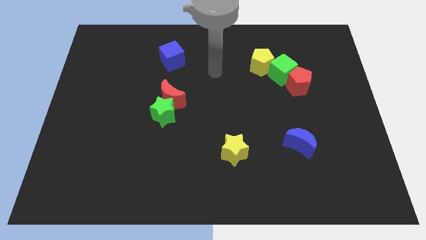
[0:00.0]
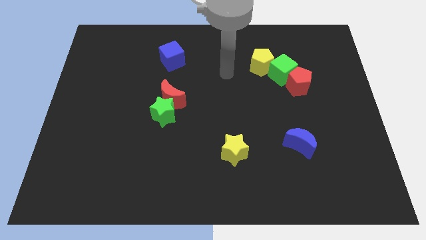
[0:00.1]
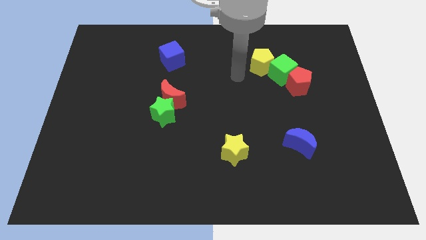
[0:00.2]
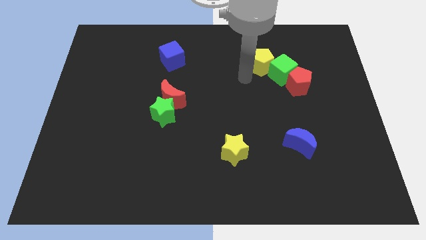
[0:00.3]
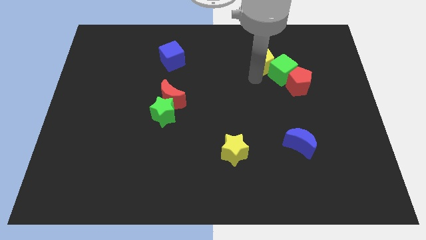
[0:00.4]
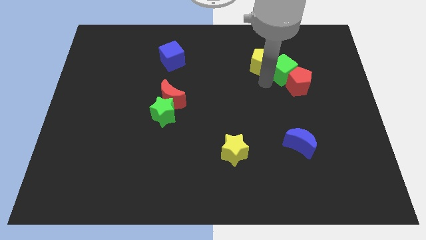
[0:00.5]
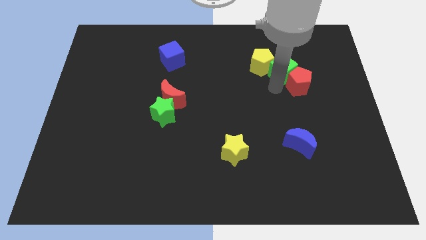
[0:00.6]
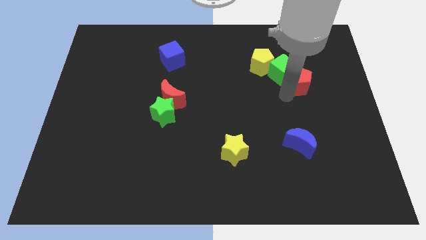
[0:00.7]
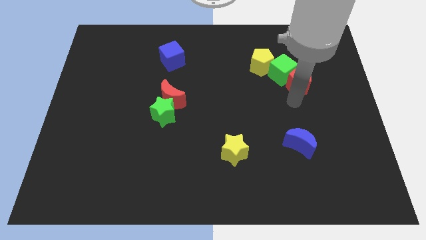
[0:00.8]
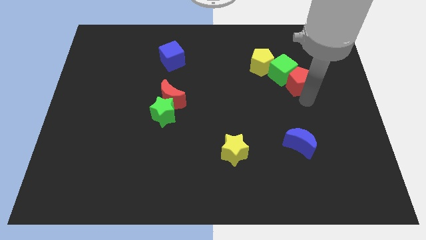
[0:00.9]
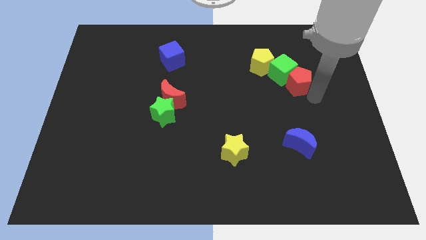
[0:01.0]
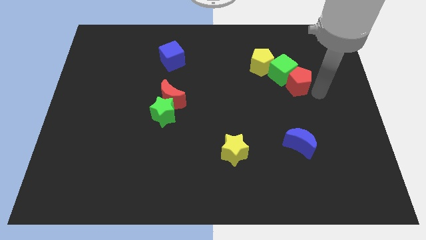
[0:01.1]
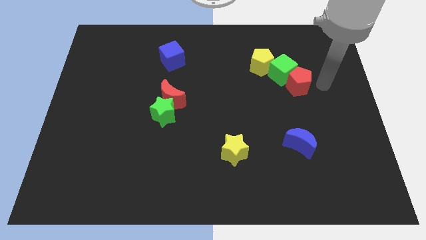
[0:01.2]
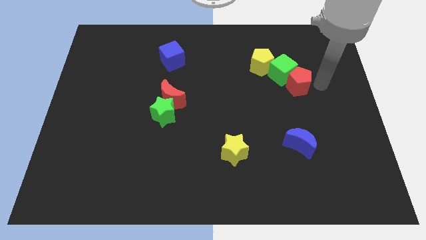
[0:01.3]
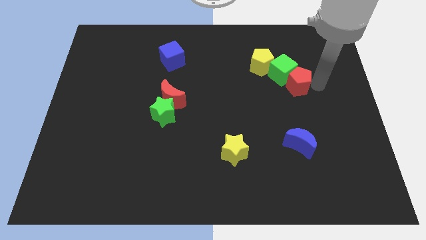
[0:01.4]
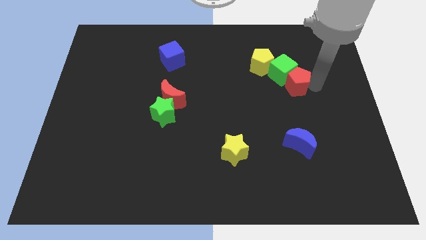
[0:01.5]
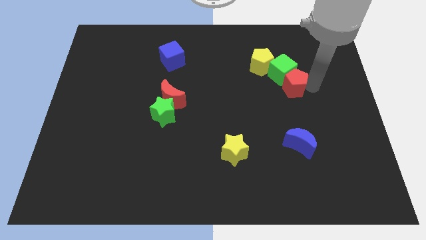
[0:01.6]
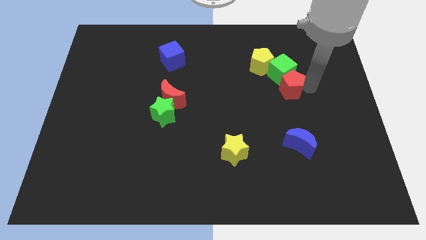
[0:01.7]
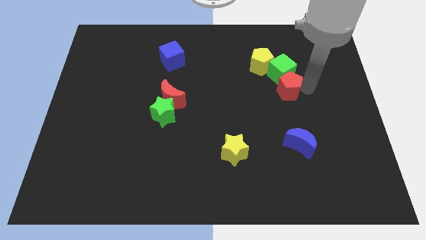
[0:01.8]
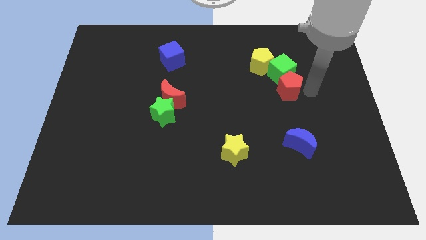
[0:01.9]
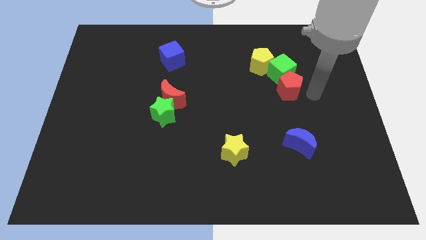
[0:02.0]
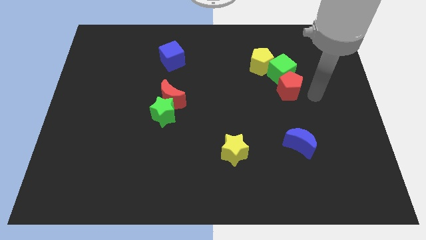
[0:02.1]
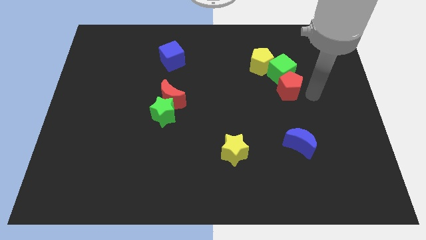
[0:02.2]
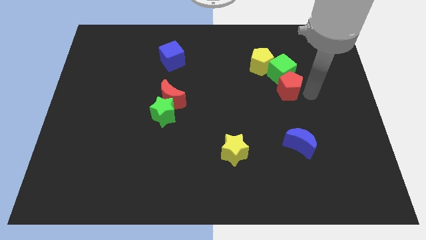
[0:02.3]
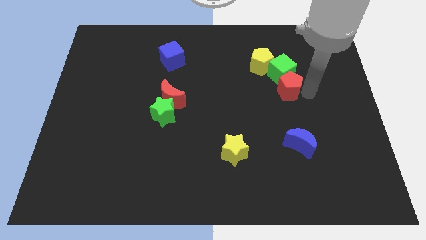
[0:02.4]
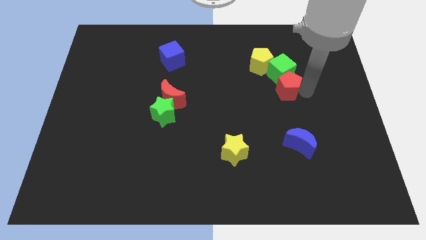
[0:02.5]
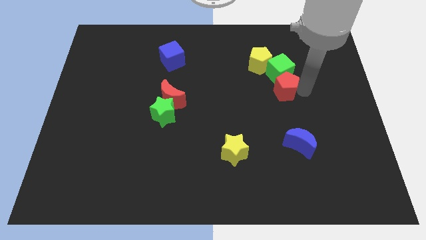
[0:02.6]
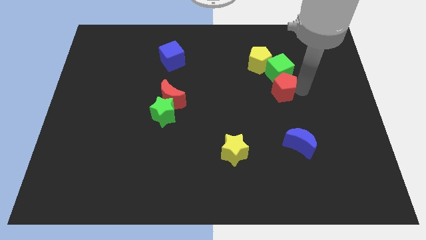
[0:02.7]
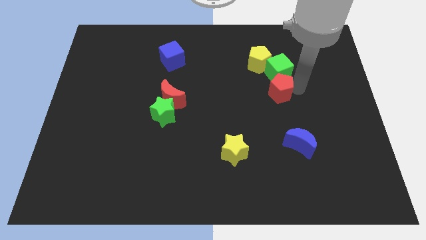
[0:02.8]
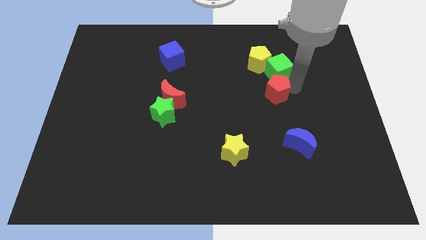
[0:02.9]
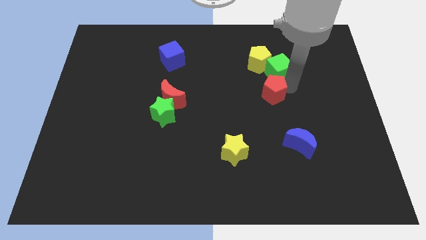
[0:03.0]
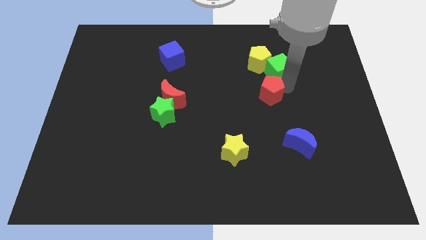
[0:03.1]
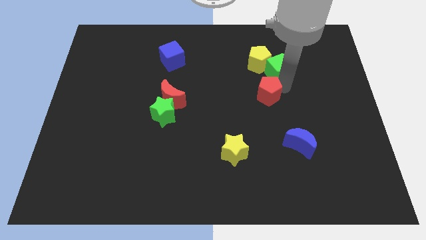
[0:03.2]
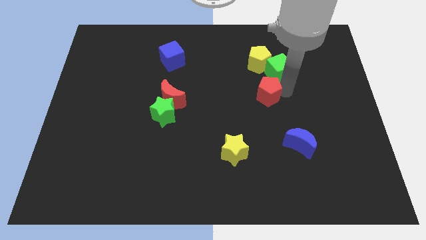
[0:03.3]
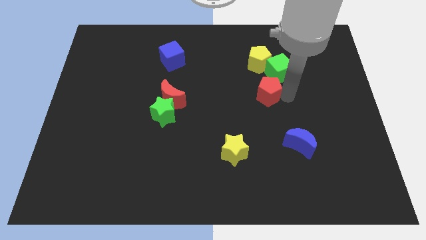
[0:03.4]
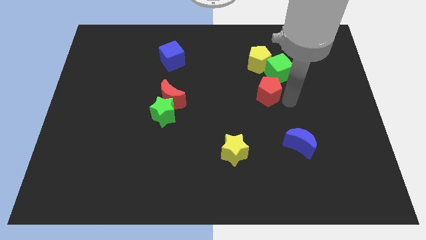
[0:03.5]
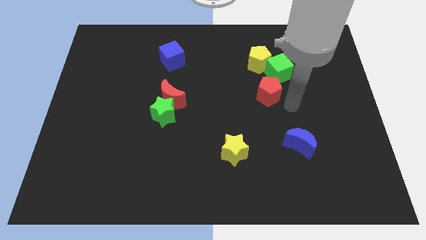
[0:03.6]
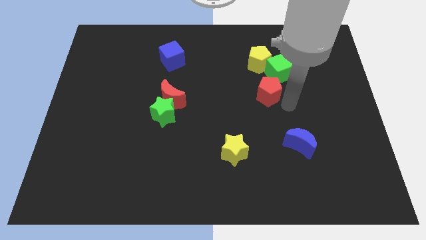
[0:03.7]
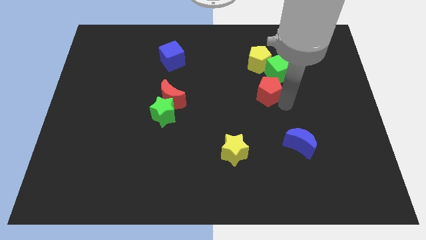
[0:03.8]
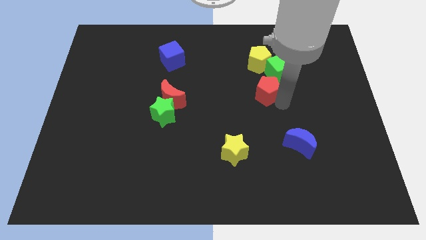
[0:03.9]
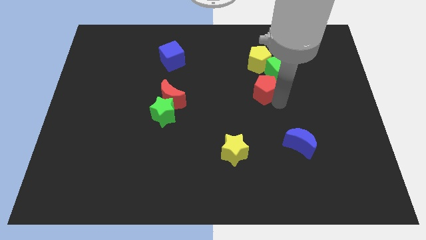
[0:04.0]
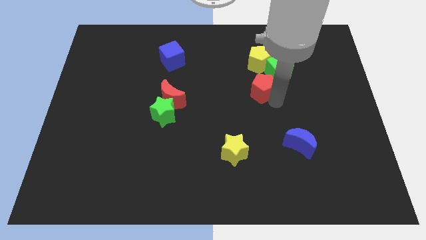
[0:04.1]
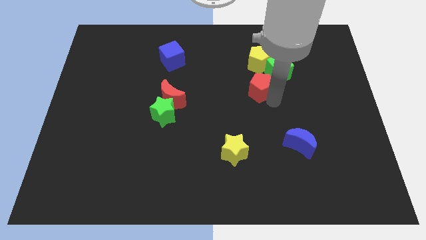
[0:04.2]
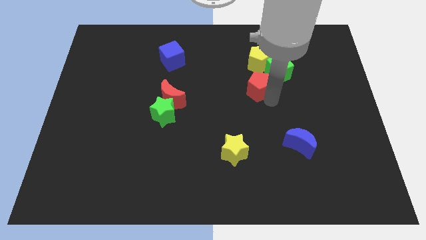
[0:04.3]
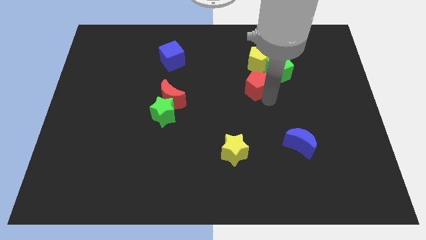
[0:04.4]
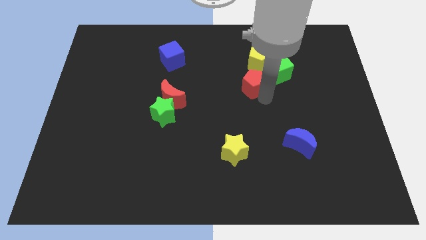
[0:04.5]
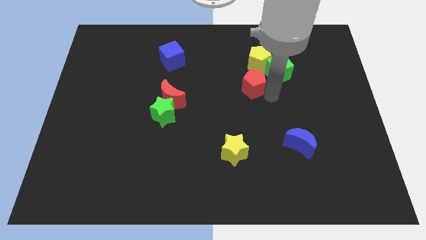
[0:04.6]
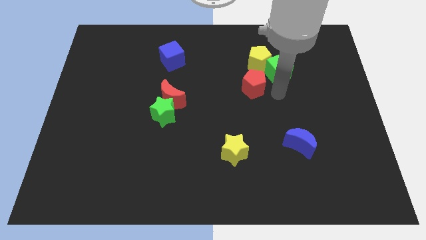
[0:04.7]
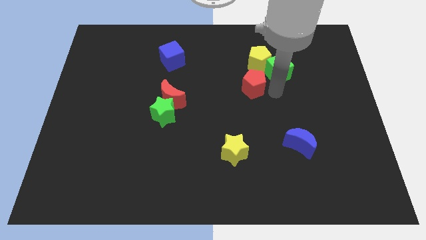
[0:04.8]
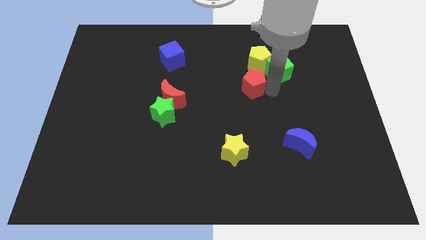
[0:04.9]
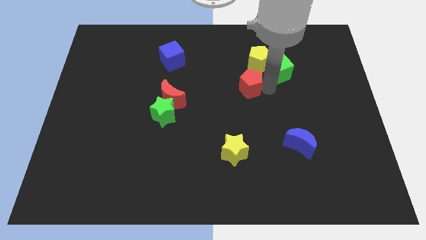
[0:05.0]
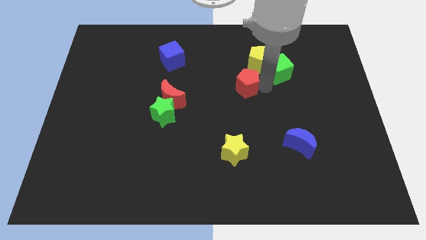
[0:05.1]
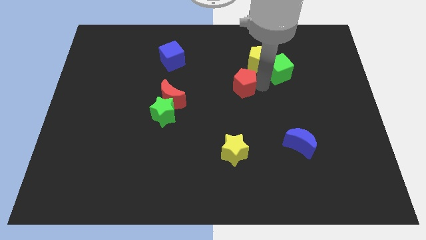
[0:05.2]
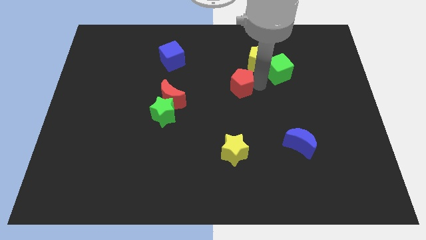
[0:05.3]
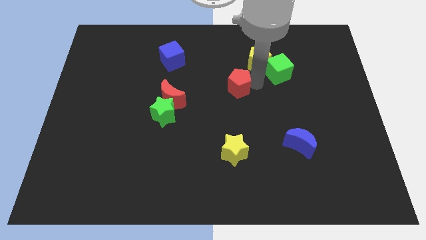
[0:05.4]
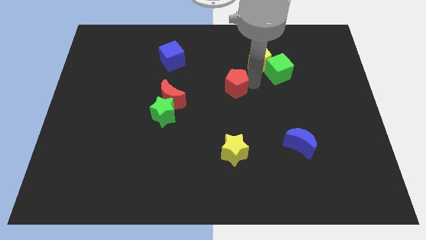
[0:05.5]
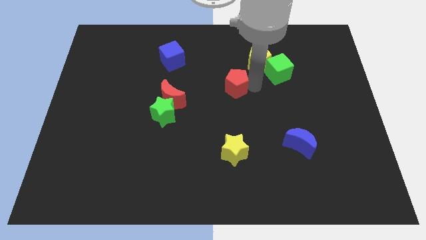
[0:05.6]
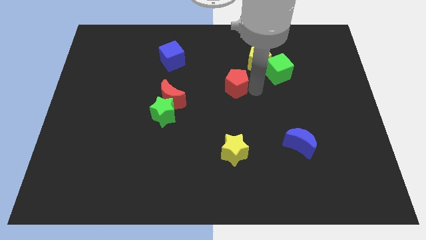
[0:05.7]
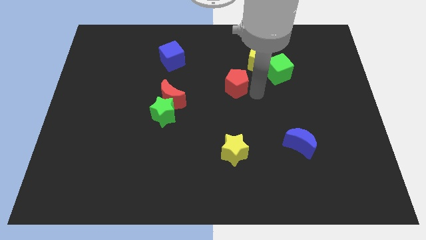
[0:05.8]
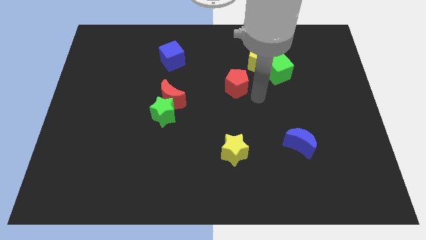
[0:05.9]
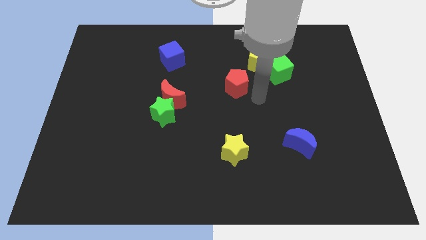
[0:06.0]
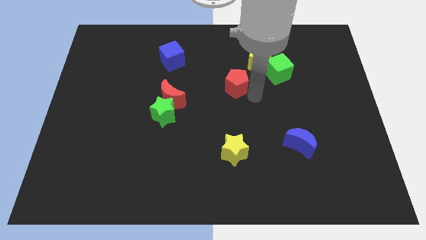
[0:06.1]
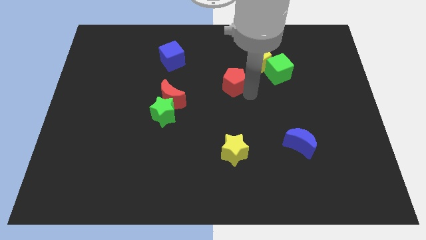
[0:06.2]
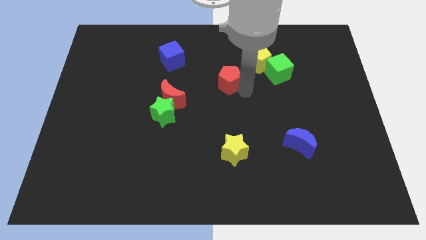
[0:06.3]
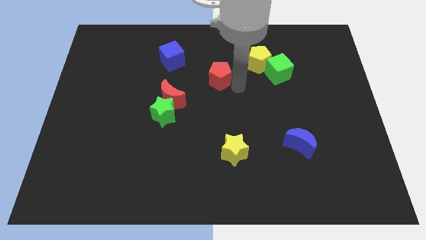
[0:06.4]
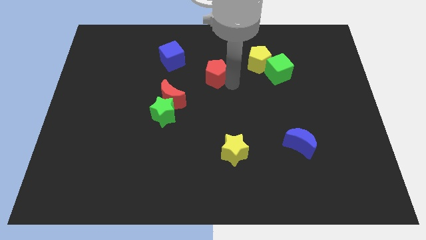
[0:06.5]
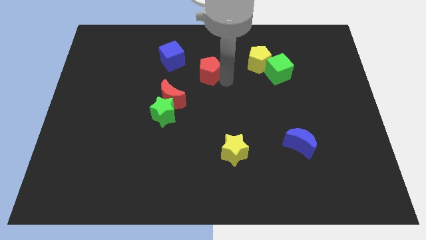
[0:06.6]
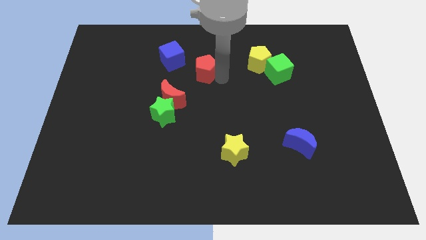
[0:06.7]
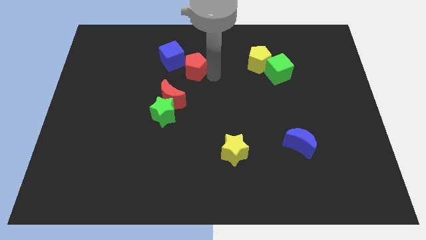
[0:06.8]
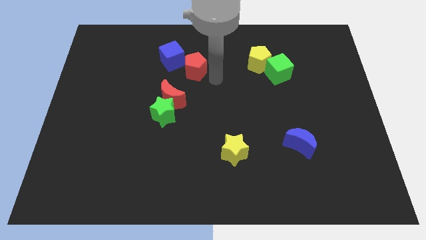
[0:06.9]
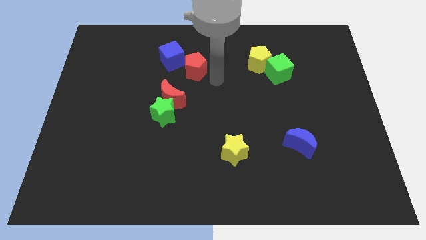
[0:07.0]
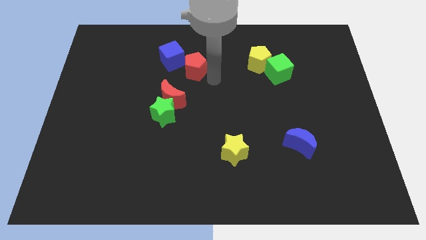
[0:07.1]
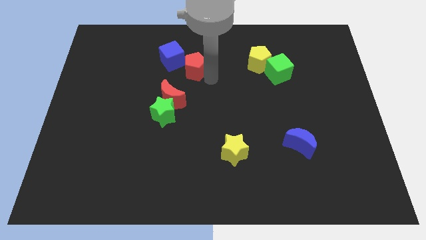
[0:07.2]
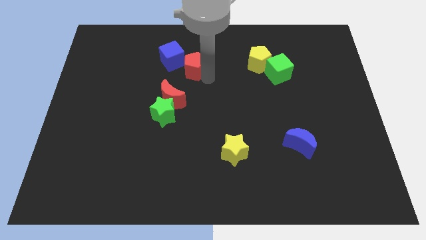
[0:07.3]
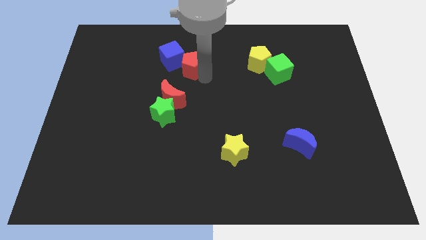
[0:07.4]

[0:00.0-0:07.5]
put the red pentagon towards the blue cube
